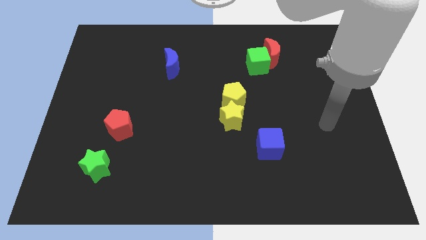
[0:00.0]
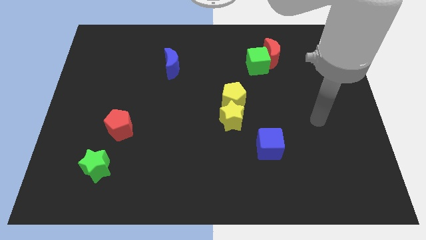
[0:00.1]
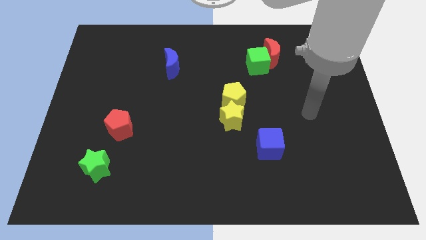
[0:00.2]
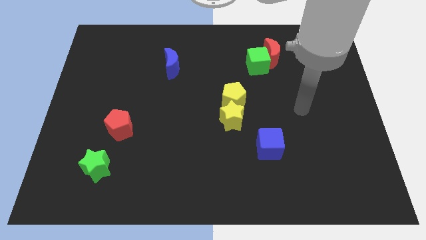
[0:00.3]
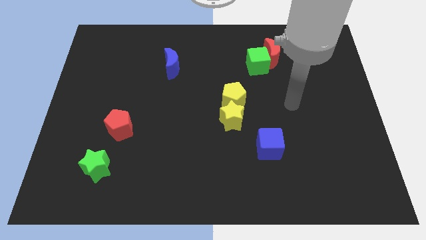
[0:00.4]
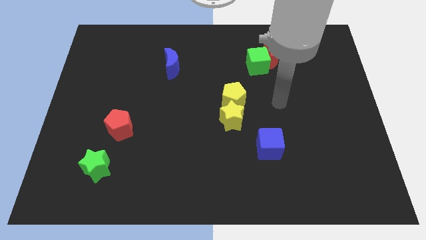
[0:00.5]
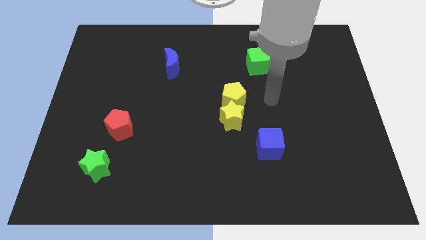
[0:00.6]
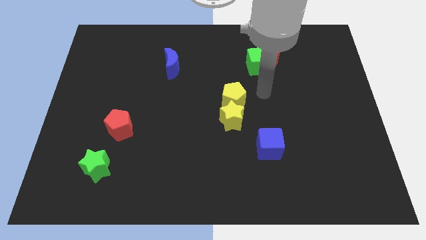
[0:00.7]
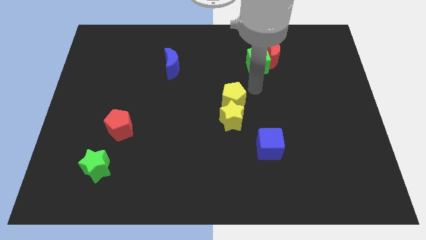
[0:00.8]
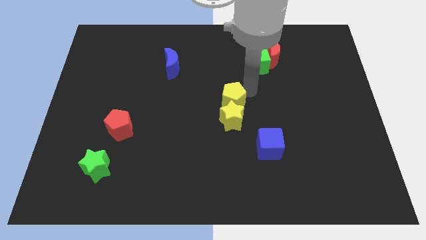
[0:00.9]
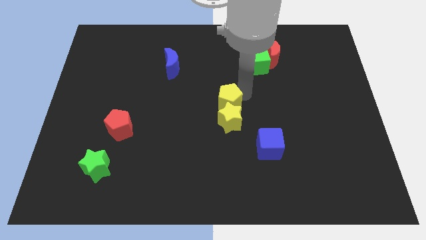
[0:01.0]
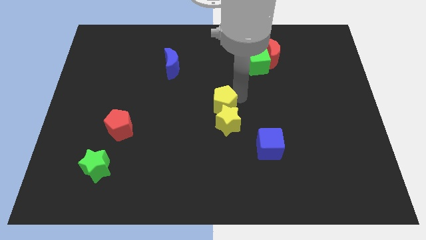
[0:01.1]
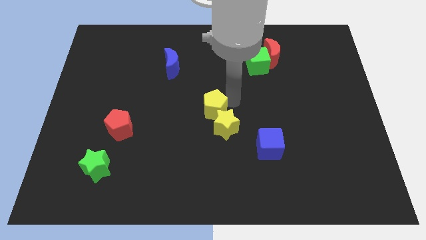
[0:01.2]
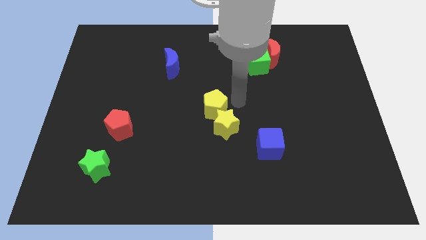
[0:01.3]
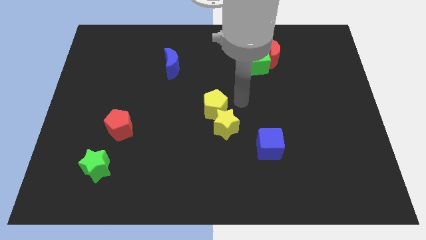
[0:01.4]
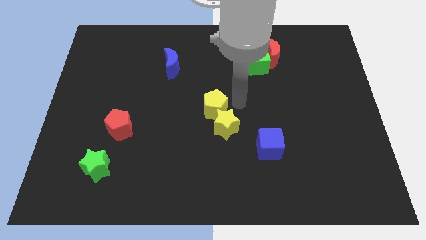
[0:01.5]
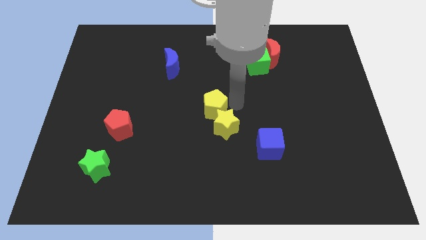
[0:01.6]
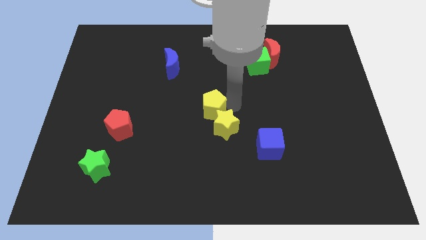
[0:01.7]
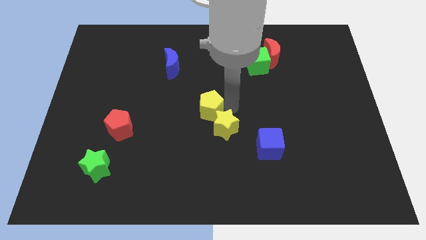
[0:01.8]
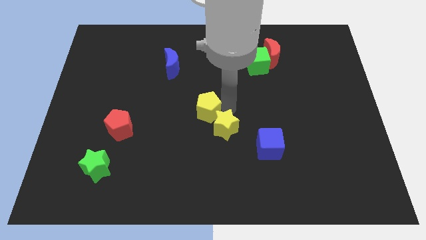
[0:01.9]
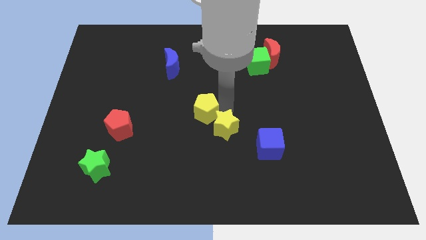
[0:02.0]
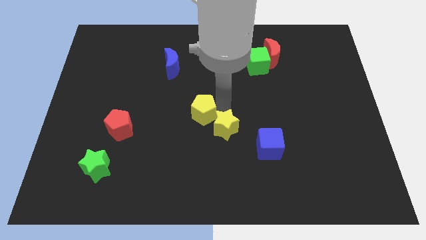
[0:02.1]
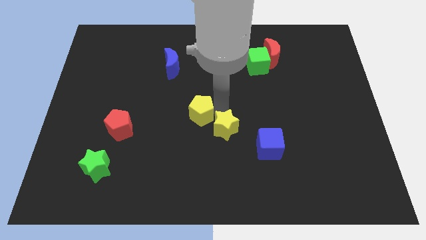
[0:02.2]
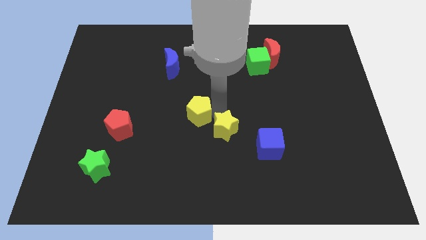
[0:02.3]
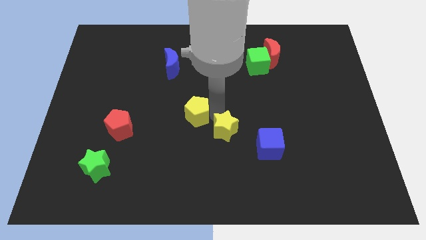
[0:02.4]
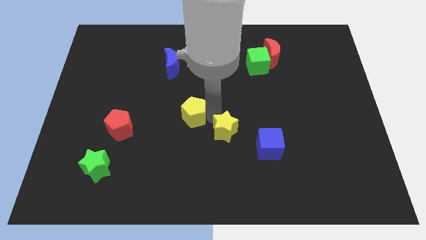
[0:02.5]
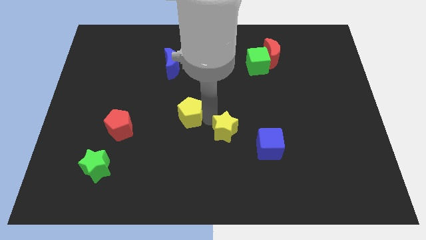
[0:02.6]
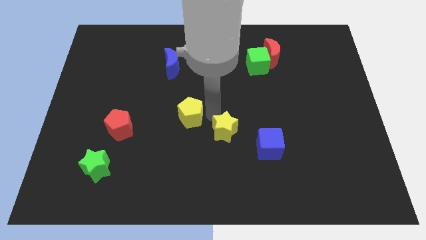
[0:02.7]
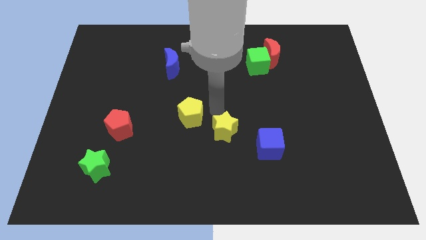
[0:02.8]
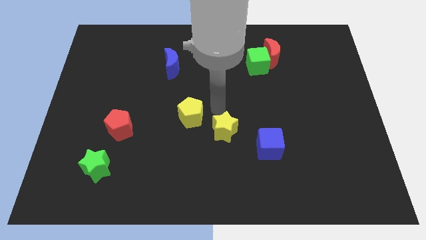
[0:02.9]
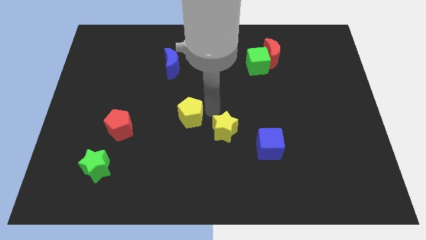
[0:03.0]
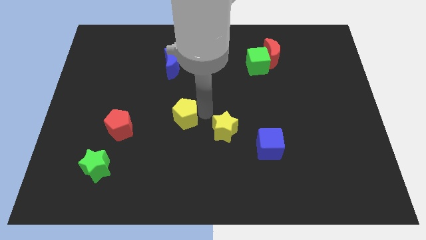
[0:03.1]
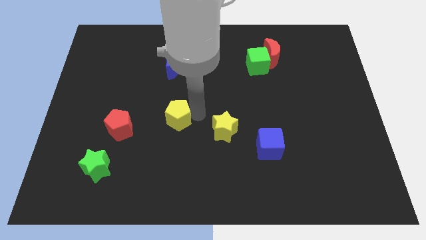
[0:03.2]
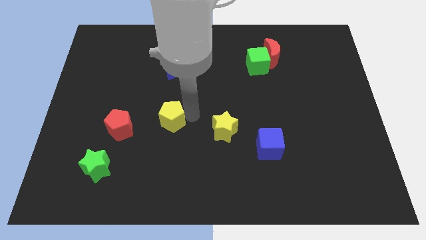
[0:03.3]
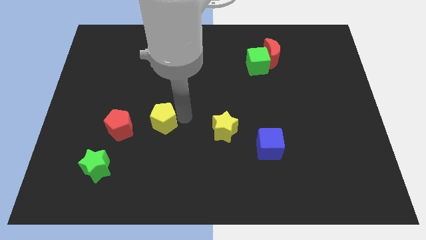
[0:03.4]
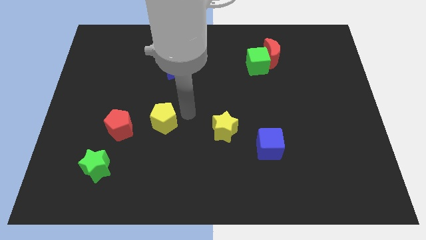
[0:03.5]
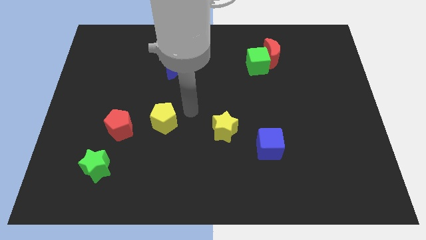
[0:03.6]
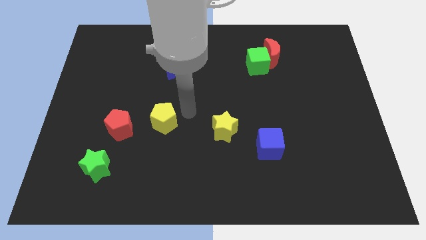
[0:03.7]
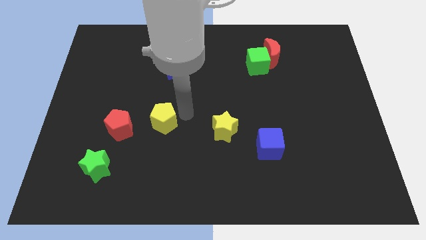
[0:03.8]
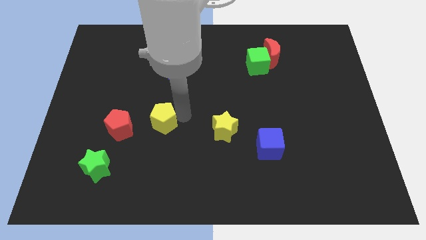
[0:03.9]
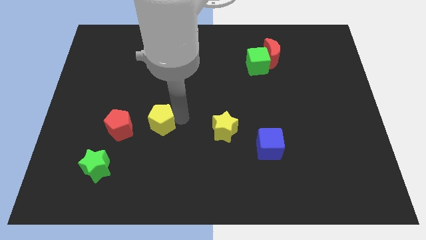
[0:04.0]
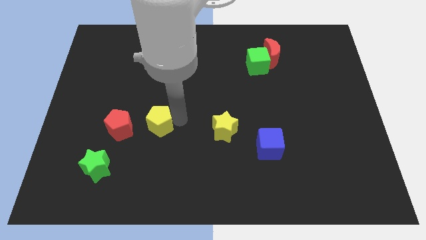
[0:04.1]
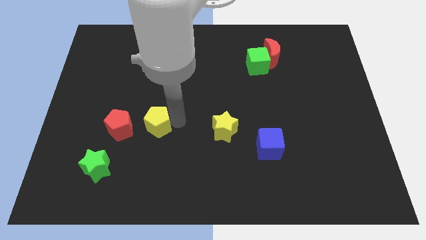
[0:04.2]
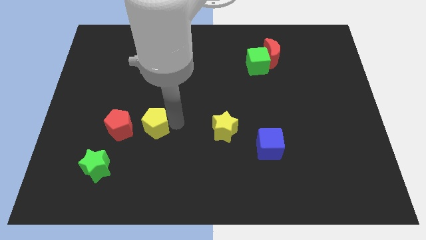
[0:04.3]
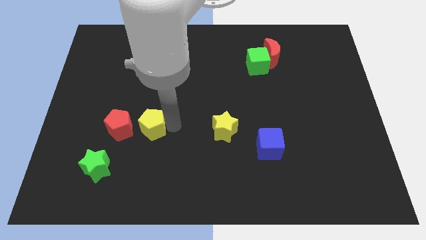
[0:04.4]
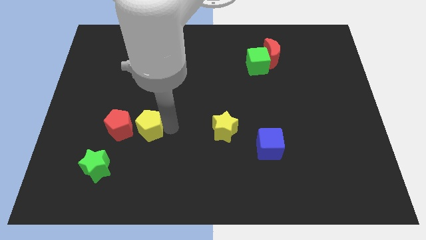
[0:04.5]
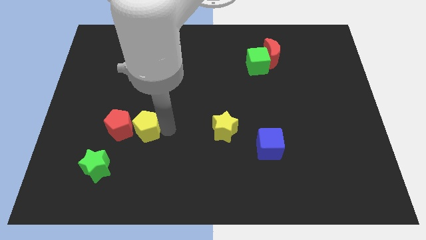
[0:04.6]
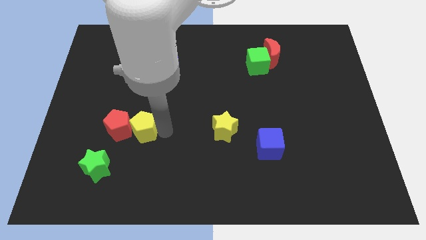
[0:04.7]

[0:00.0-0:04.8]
move the yellow pentagon close to the red pentagon

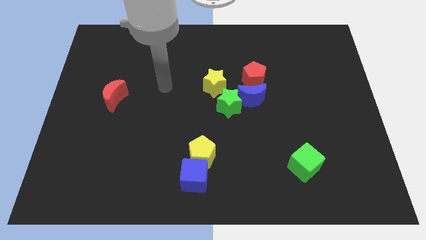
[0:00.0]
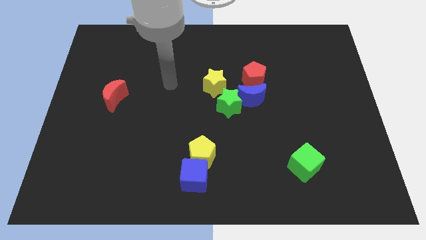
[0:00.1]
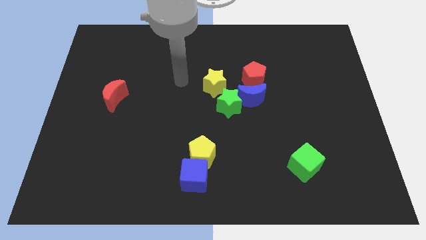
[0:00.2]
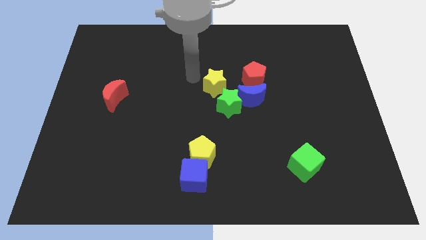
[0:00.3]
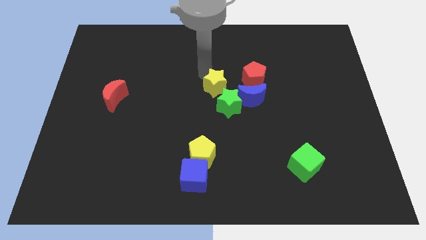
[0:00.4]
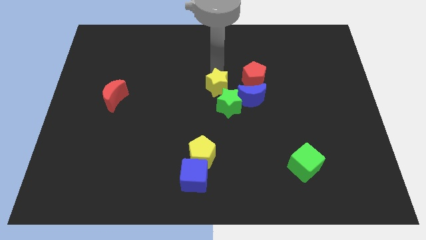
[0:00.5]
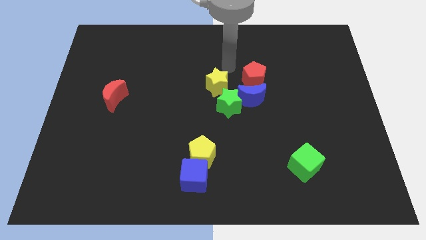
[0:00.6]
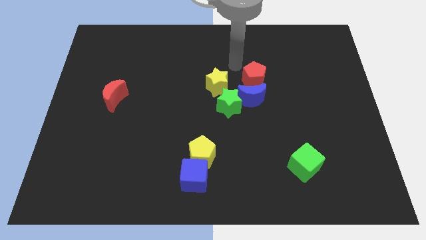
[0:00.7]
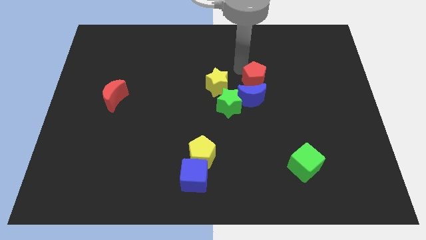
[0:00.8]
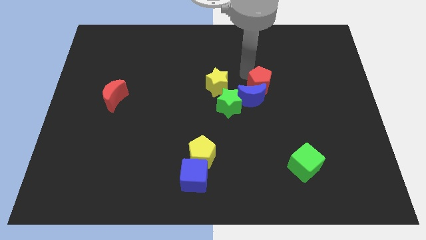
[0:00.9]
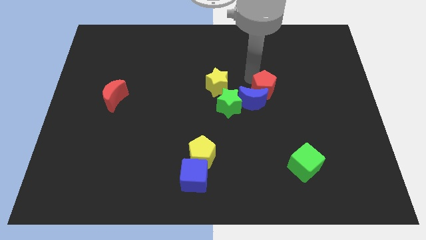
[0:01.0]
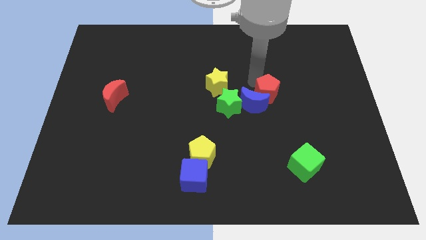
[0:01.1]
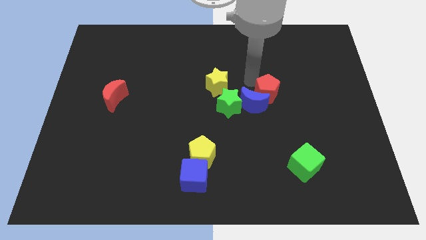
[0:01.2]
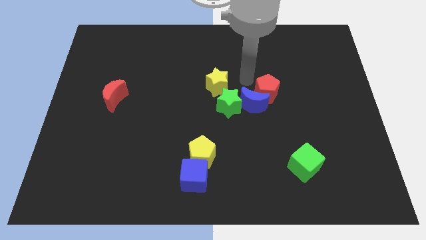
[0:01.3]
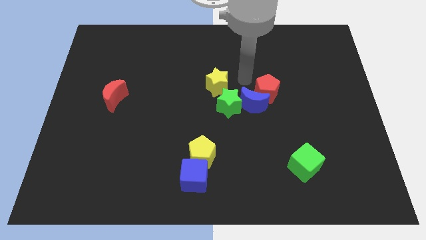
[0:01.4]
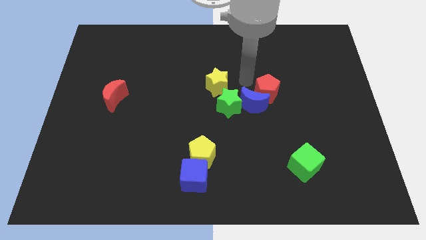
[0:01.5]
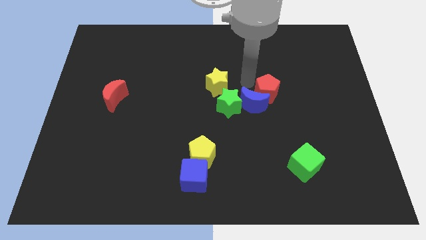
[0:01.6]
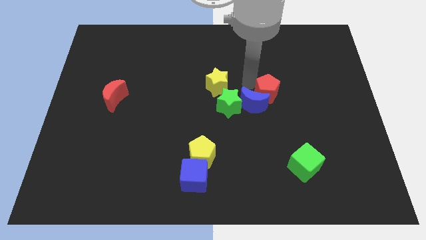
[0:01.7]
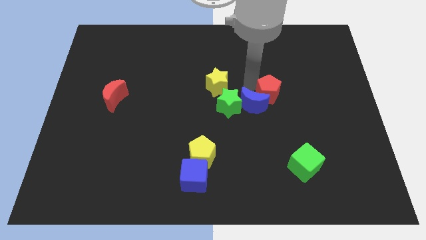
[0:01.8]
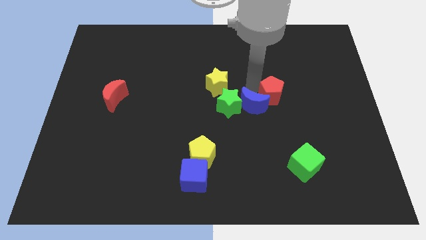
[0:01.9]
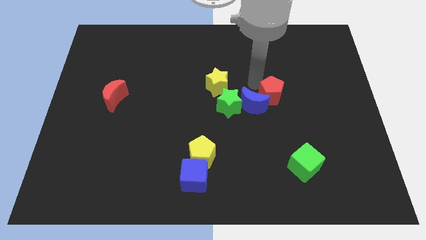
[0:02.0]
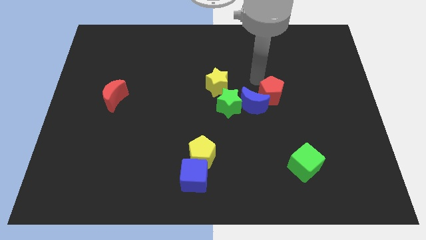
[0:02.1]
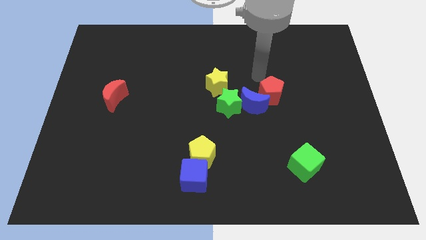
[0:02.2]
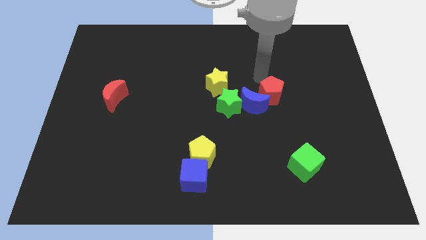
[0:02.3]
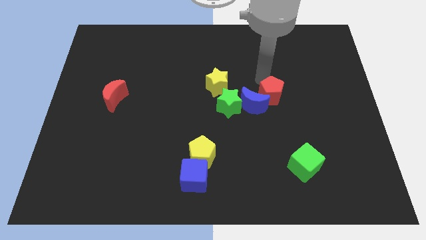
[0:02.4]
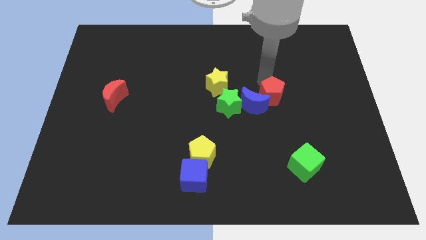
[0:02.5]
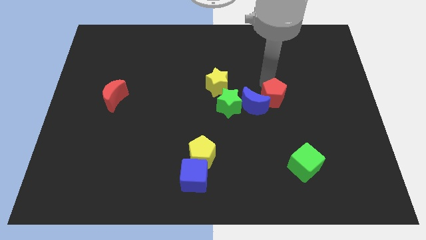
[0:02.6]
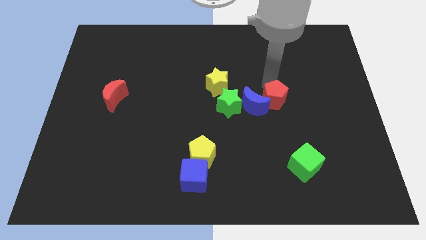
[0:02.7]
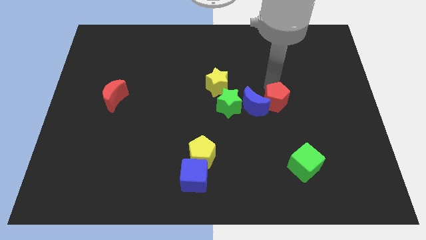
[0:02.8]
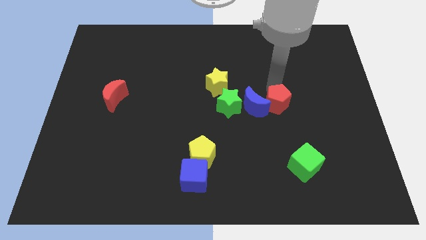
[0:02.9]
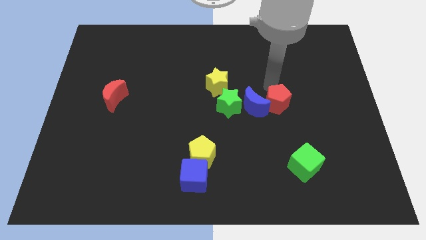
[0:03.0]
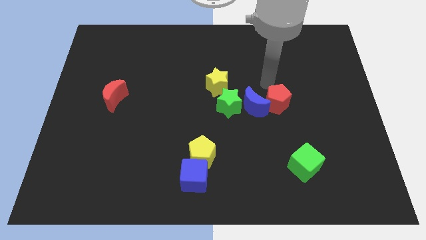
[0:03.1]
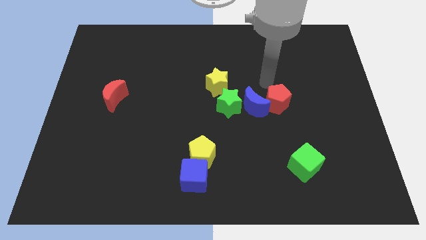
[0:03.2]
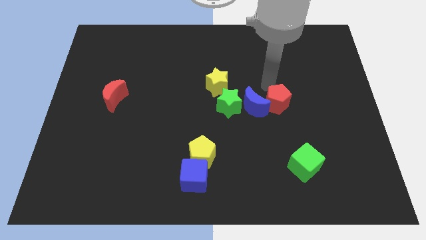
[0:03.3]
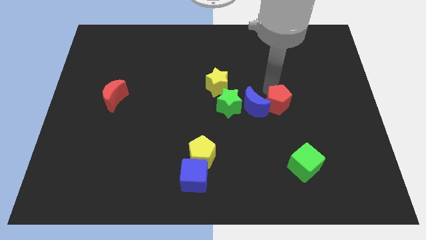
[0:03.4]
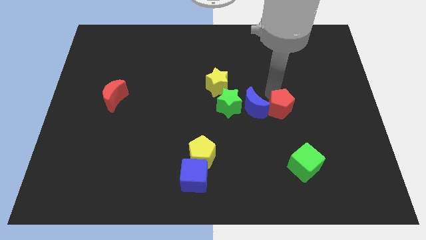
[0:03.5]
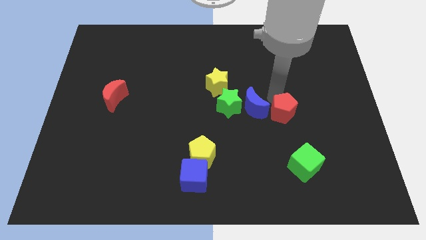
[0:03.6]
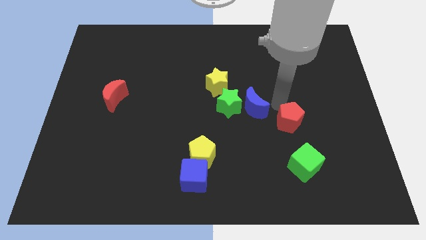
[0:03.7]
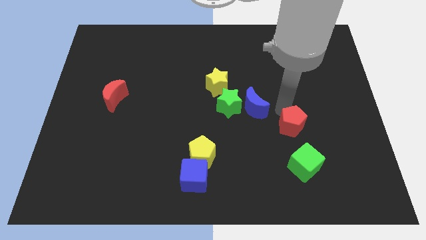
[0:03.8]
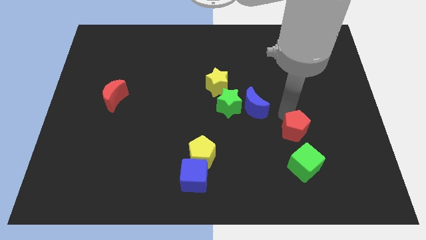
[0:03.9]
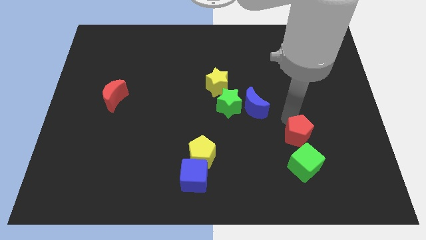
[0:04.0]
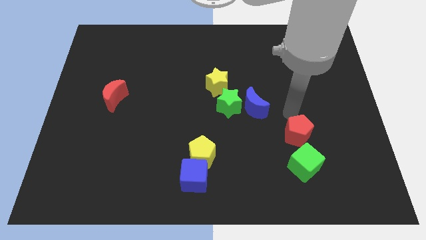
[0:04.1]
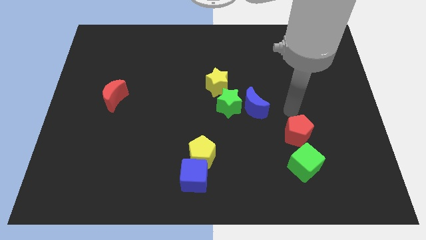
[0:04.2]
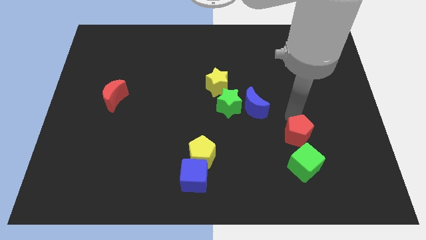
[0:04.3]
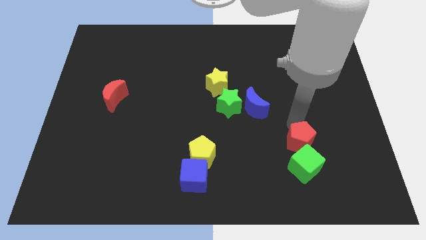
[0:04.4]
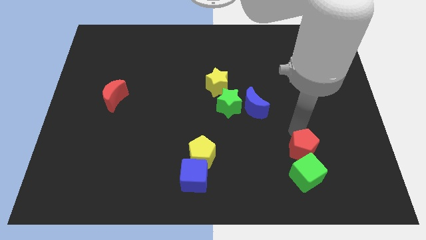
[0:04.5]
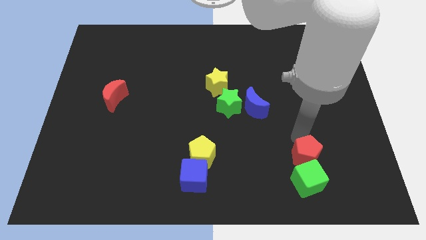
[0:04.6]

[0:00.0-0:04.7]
push the red pentagon to the green cube
